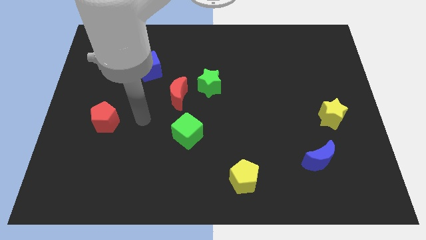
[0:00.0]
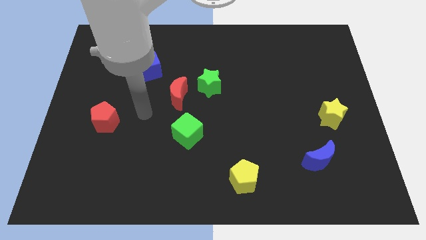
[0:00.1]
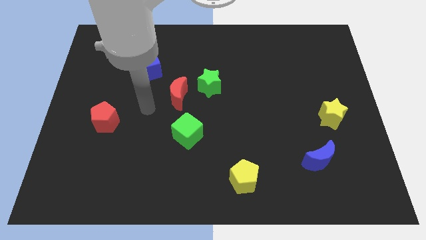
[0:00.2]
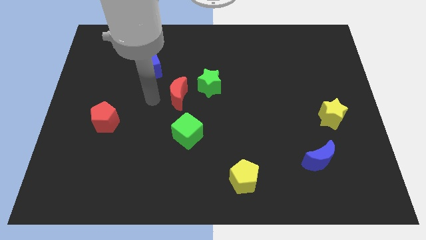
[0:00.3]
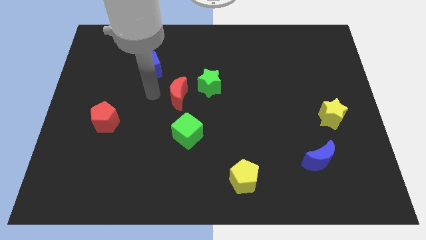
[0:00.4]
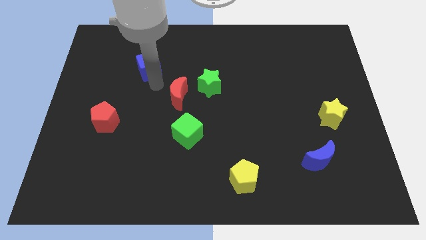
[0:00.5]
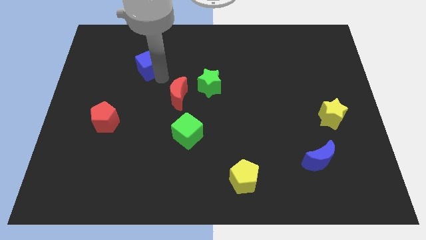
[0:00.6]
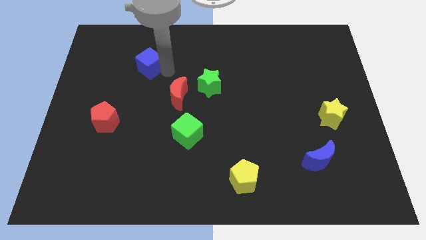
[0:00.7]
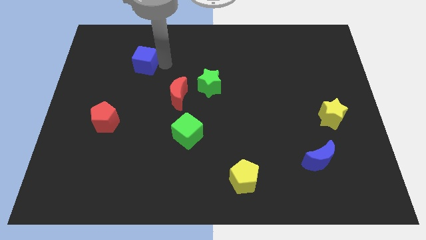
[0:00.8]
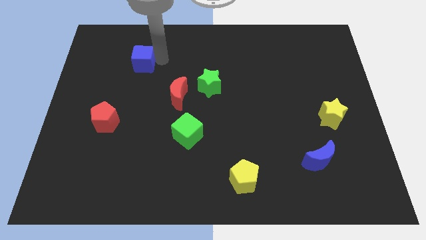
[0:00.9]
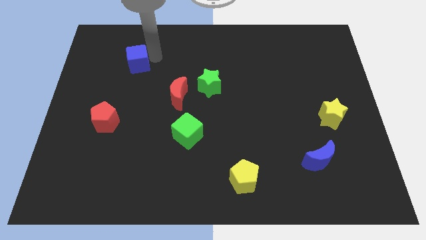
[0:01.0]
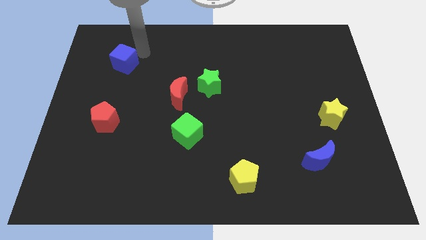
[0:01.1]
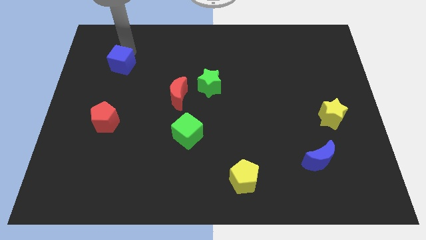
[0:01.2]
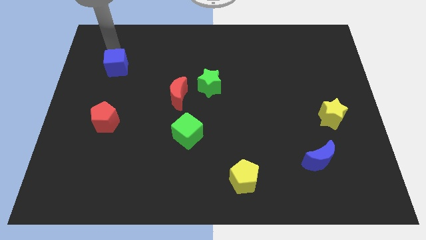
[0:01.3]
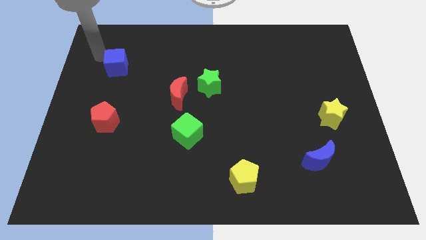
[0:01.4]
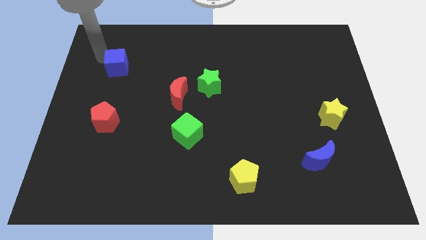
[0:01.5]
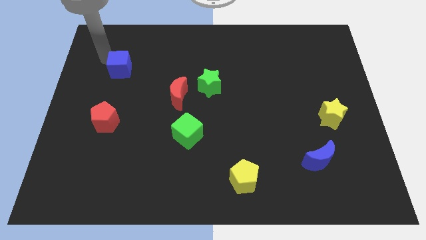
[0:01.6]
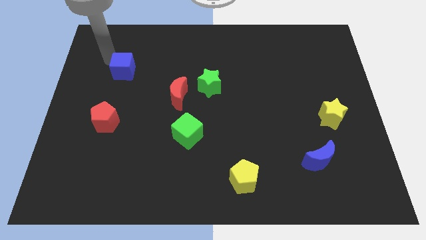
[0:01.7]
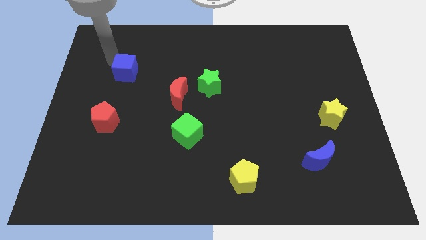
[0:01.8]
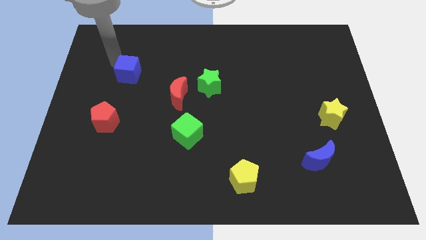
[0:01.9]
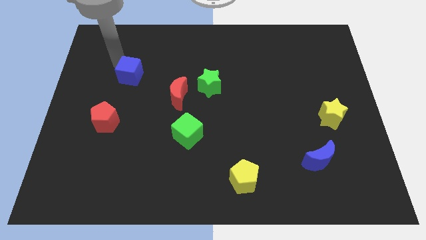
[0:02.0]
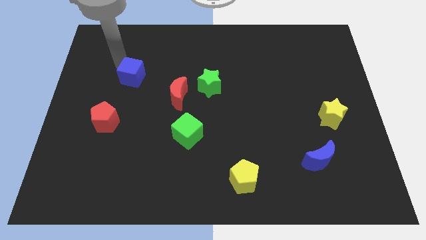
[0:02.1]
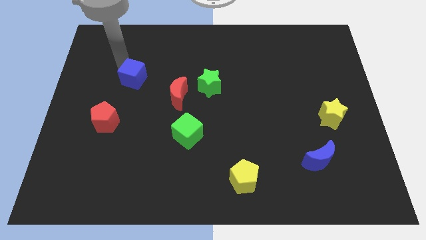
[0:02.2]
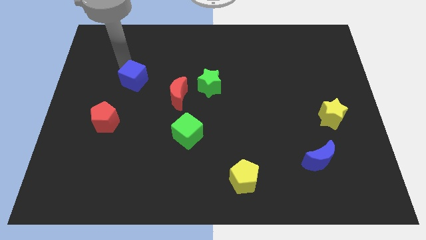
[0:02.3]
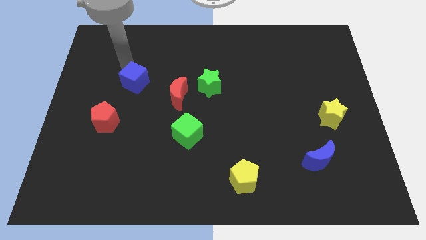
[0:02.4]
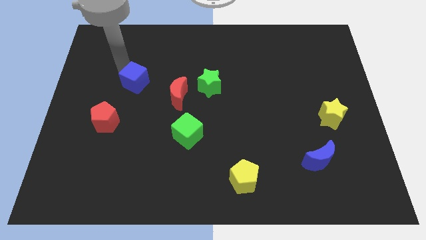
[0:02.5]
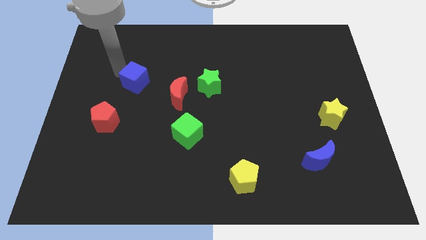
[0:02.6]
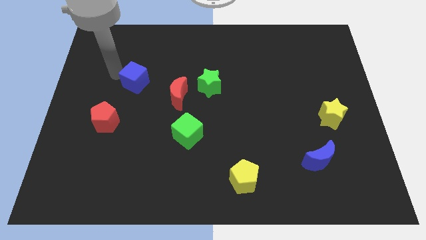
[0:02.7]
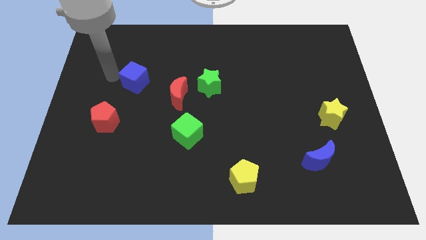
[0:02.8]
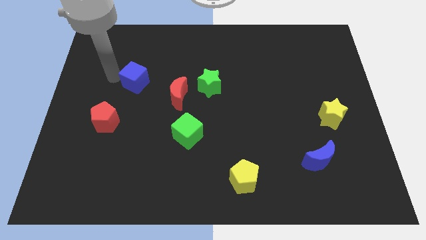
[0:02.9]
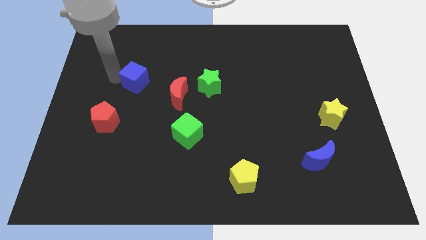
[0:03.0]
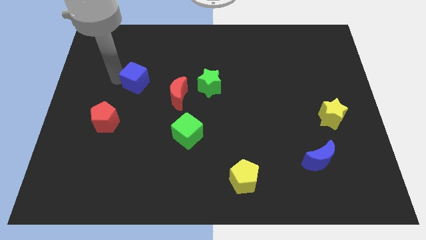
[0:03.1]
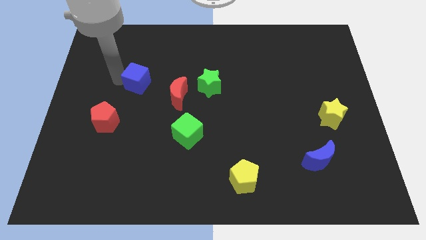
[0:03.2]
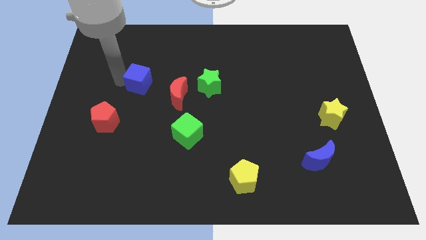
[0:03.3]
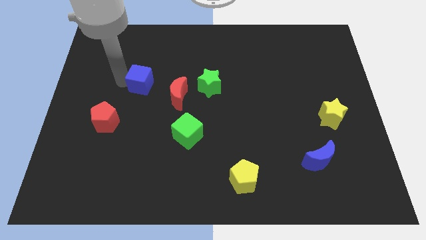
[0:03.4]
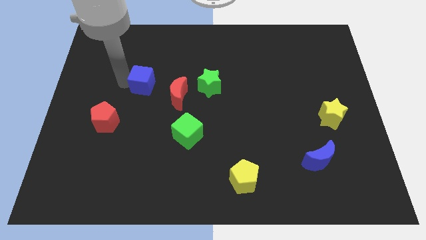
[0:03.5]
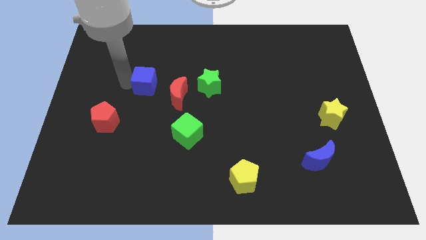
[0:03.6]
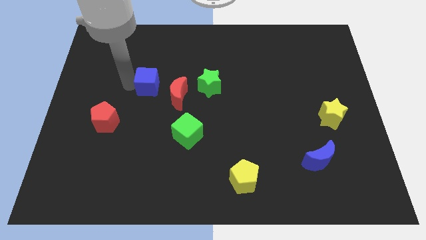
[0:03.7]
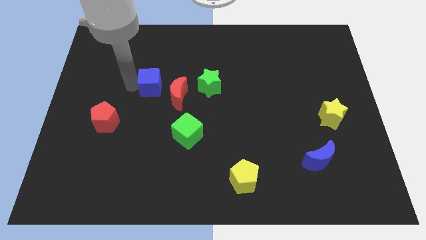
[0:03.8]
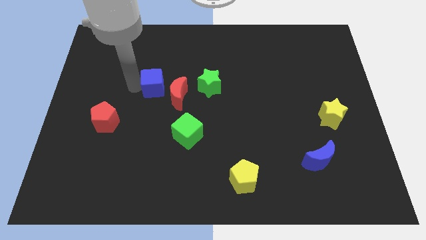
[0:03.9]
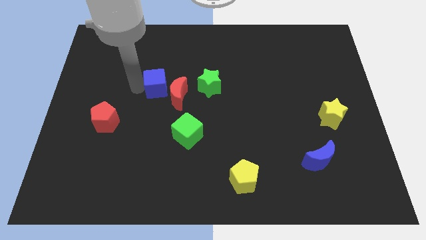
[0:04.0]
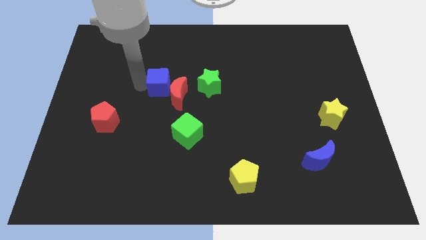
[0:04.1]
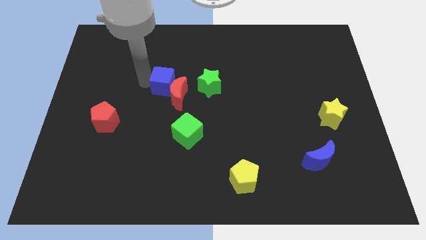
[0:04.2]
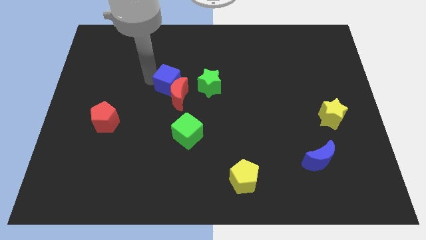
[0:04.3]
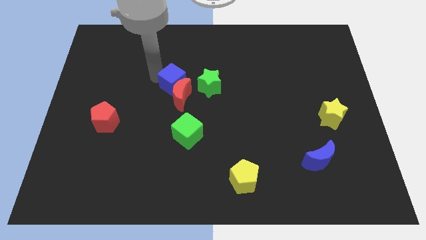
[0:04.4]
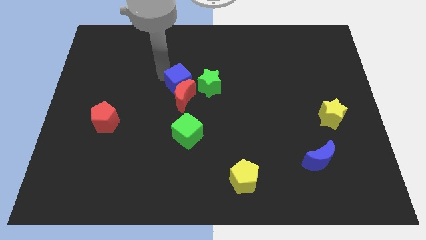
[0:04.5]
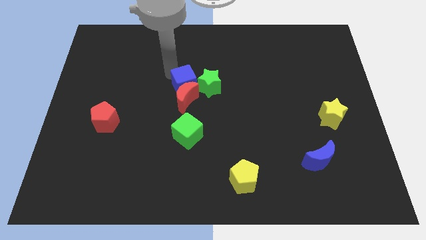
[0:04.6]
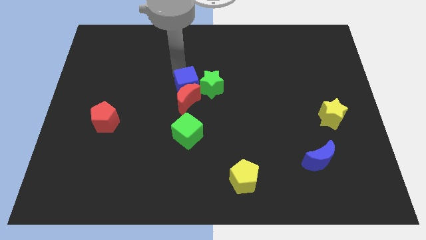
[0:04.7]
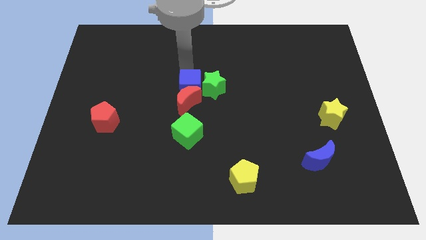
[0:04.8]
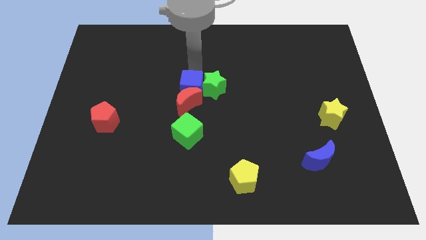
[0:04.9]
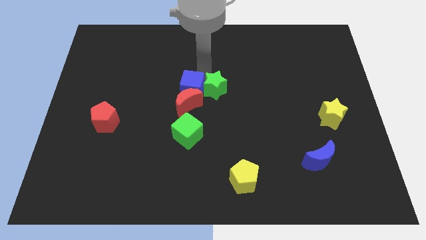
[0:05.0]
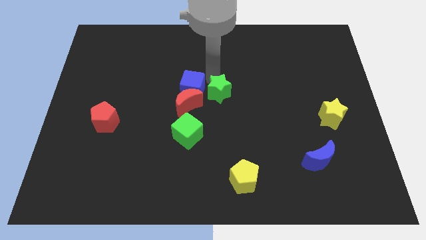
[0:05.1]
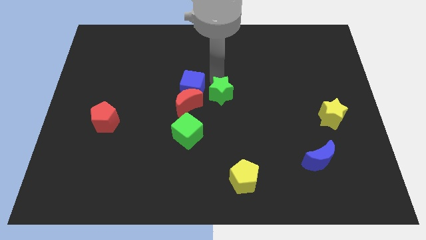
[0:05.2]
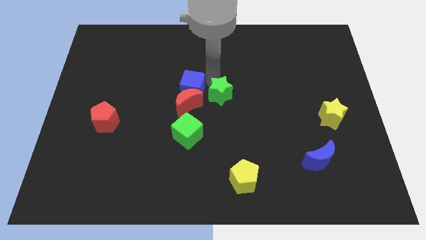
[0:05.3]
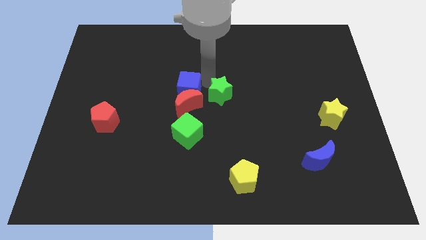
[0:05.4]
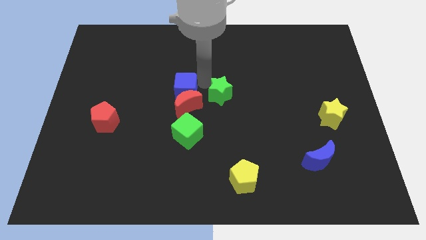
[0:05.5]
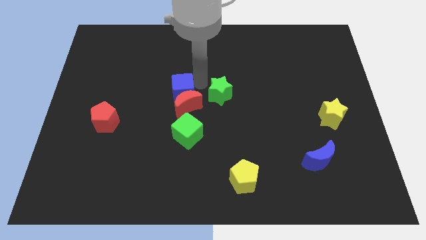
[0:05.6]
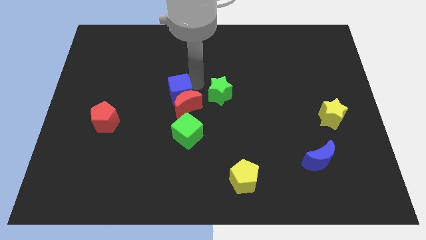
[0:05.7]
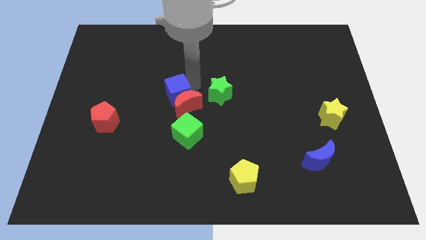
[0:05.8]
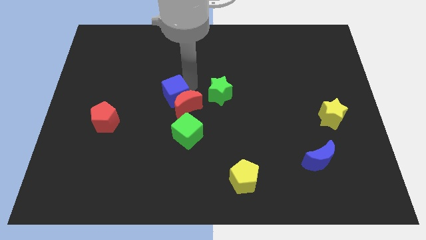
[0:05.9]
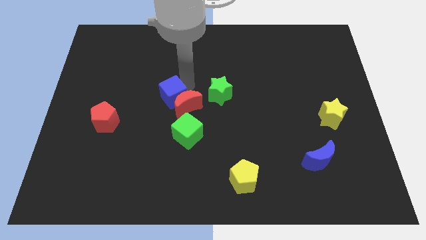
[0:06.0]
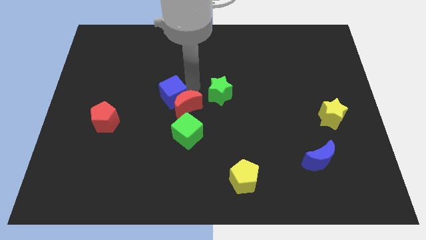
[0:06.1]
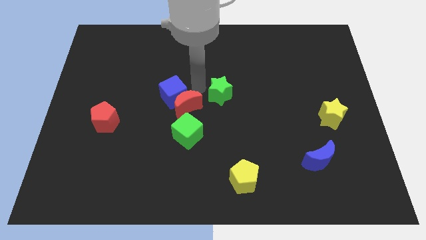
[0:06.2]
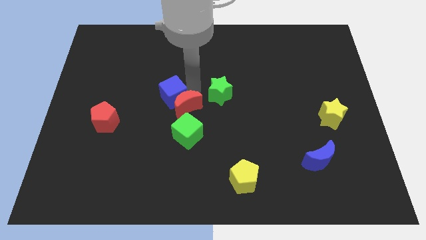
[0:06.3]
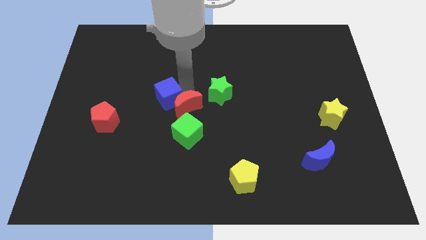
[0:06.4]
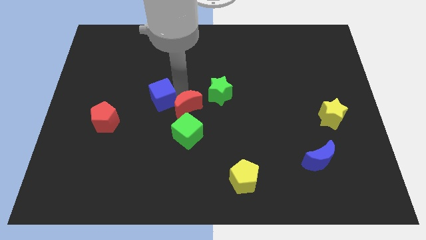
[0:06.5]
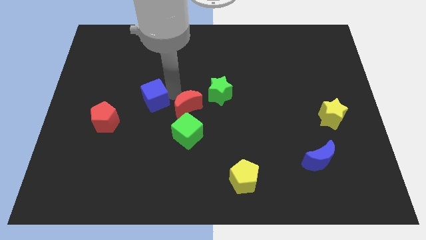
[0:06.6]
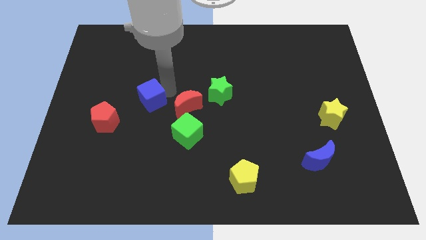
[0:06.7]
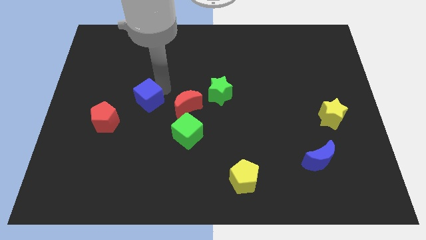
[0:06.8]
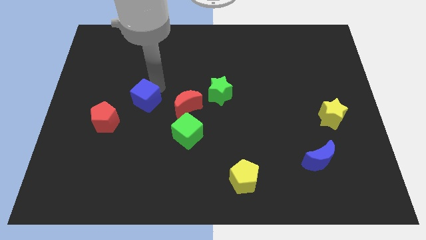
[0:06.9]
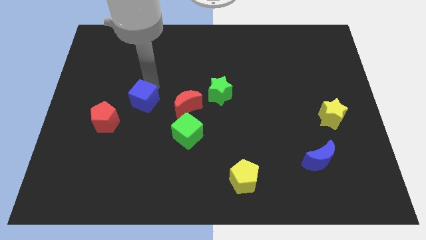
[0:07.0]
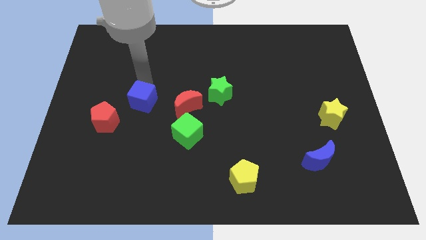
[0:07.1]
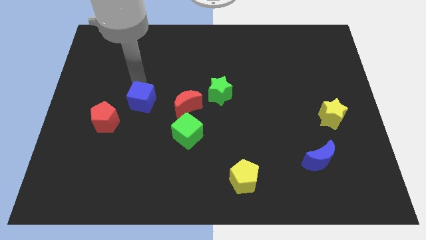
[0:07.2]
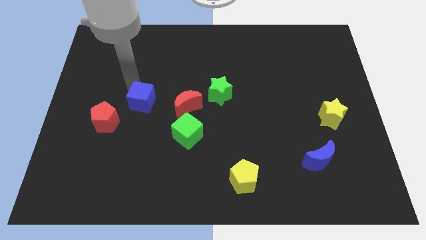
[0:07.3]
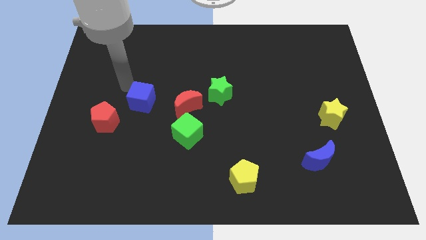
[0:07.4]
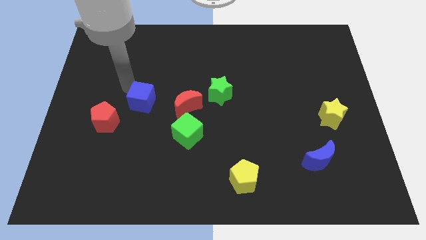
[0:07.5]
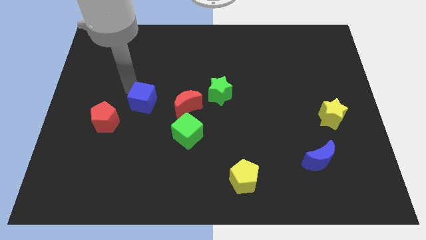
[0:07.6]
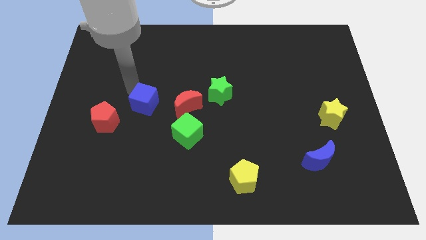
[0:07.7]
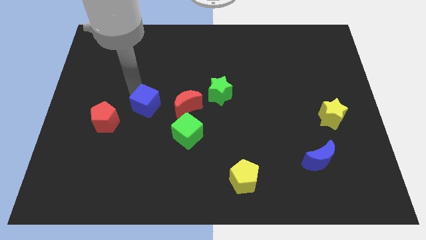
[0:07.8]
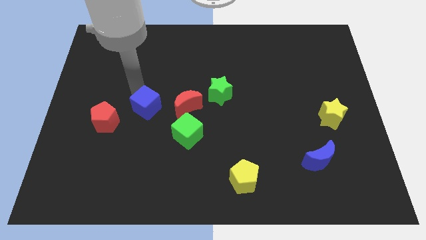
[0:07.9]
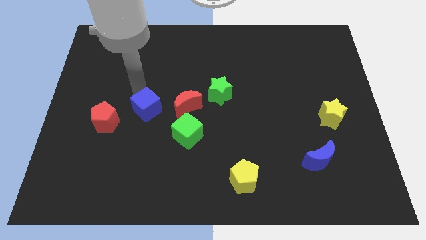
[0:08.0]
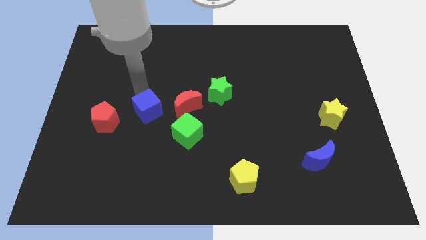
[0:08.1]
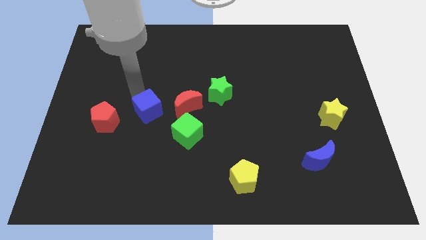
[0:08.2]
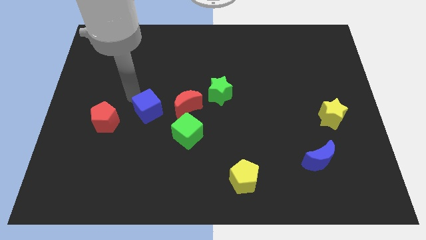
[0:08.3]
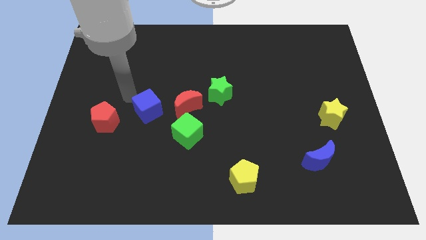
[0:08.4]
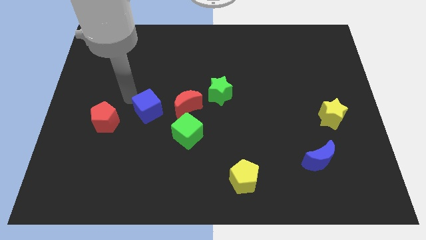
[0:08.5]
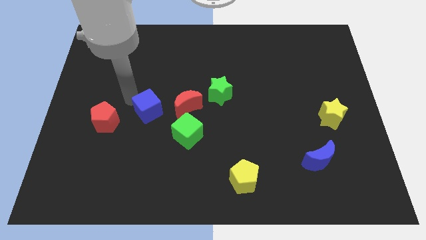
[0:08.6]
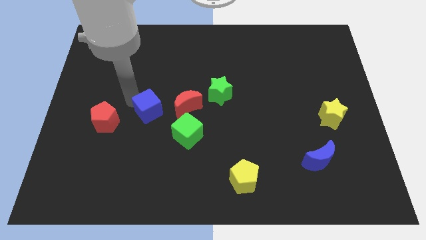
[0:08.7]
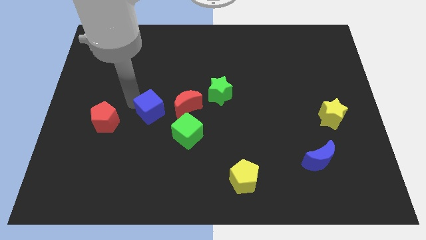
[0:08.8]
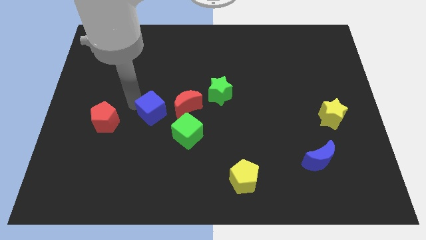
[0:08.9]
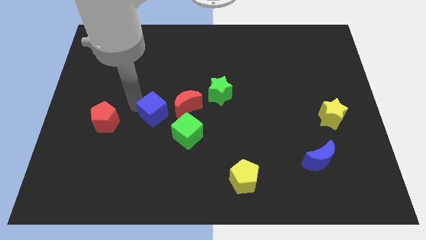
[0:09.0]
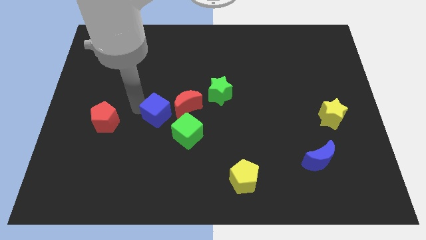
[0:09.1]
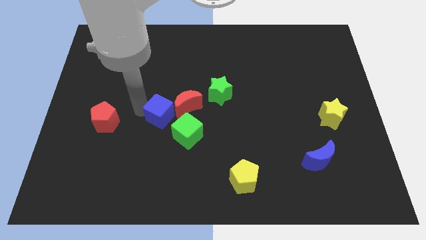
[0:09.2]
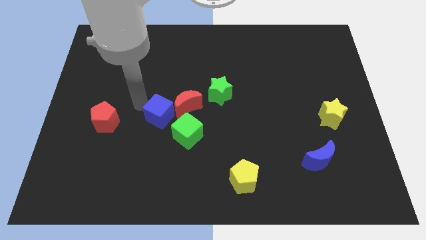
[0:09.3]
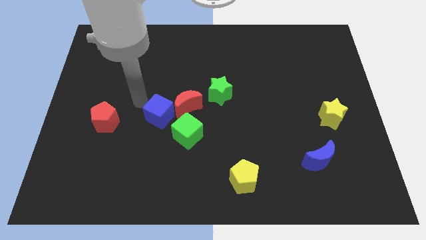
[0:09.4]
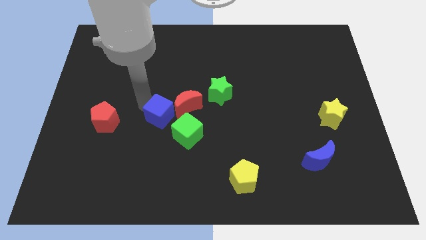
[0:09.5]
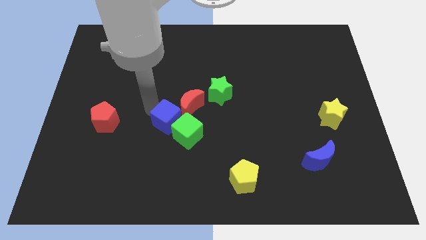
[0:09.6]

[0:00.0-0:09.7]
move the blue cube next to the green cube
